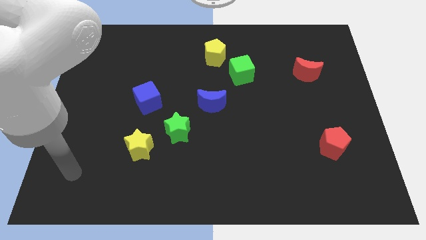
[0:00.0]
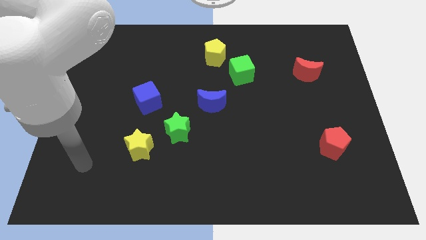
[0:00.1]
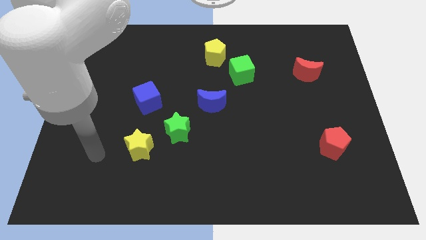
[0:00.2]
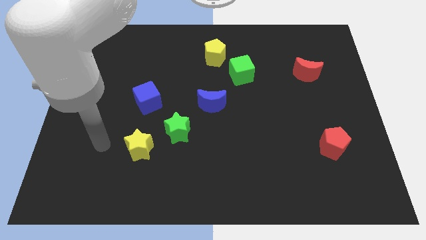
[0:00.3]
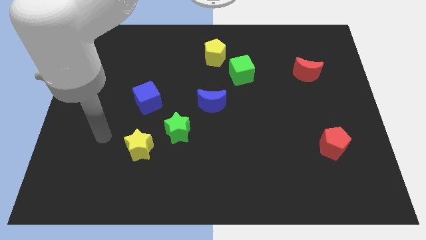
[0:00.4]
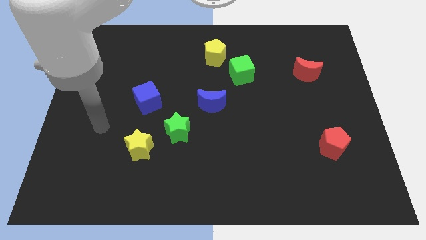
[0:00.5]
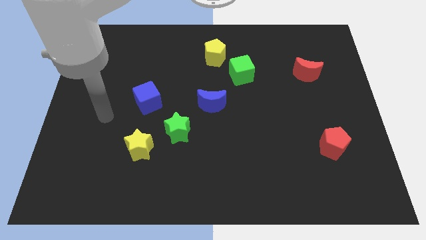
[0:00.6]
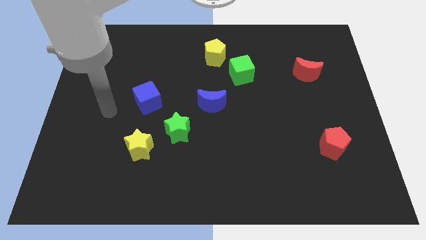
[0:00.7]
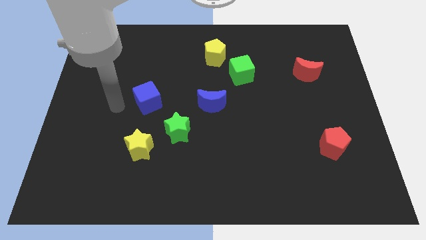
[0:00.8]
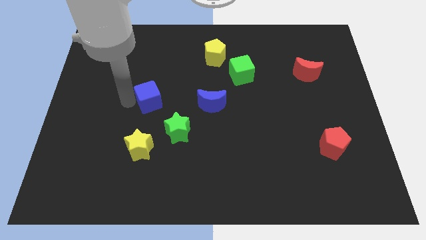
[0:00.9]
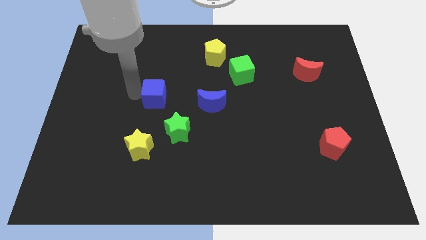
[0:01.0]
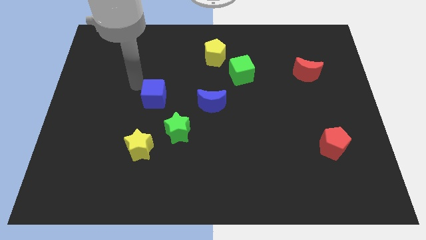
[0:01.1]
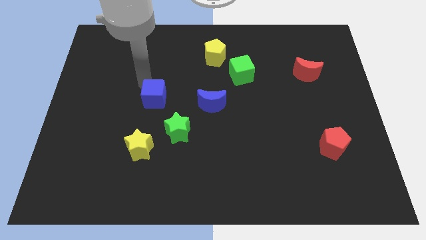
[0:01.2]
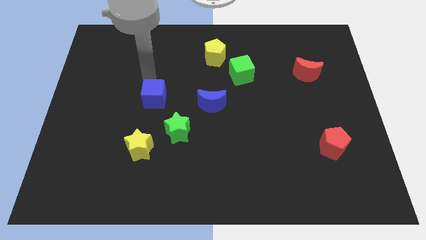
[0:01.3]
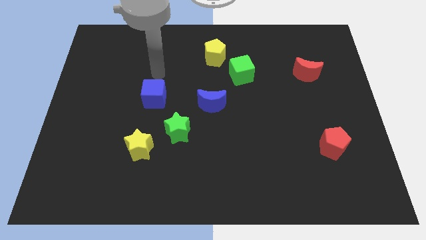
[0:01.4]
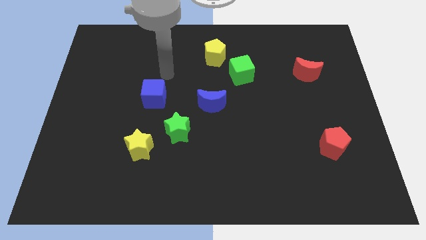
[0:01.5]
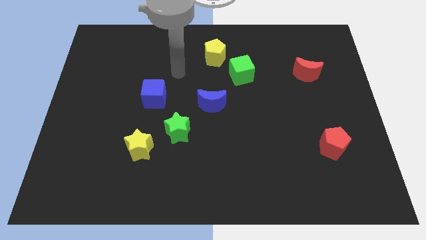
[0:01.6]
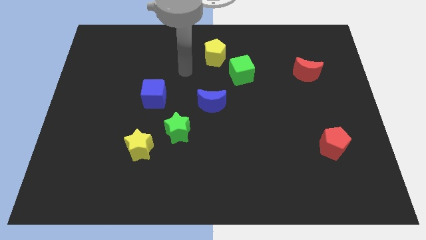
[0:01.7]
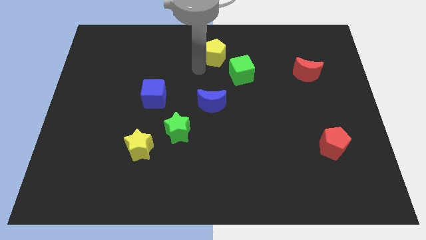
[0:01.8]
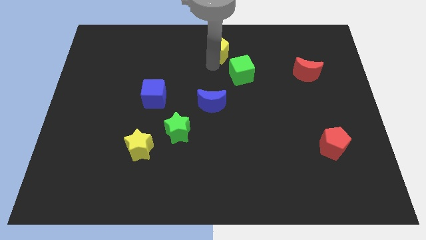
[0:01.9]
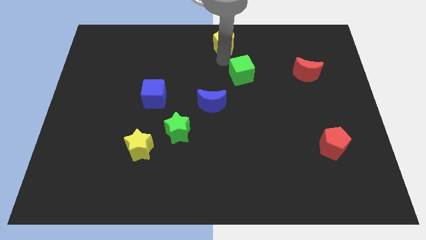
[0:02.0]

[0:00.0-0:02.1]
move the green cube away from the yellow pentagon

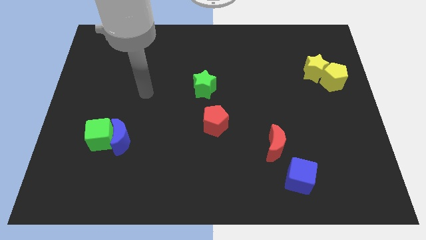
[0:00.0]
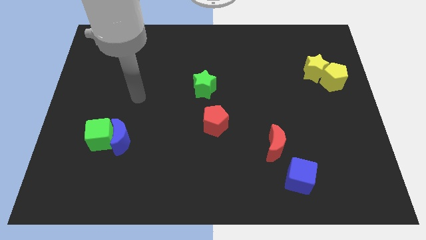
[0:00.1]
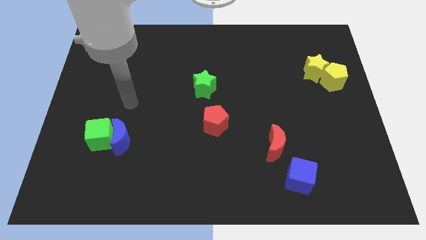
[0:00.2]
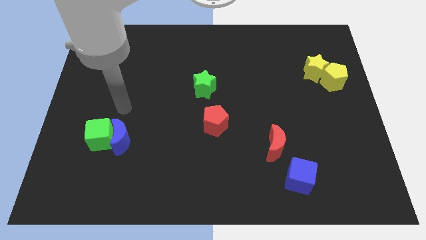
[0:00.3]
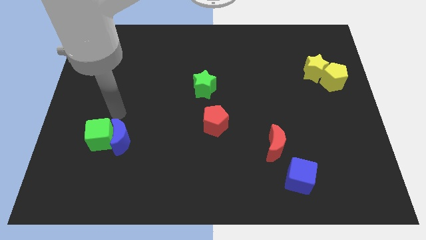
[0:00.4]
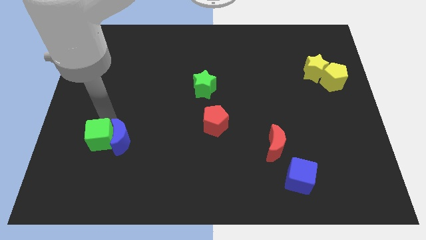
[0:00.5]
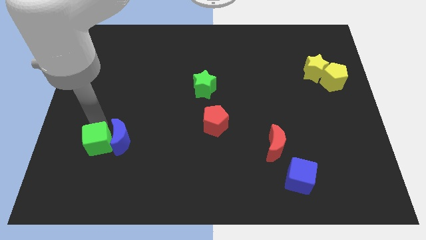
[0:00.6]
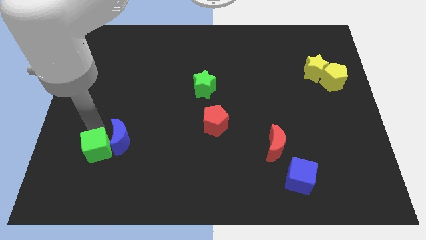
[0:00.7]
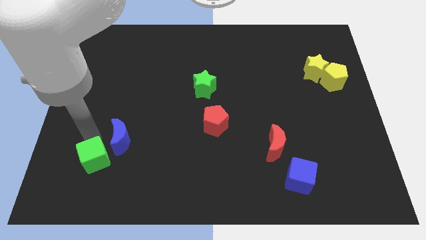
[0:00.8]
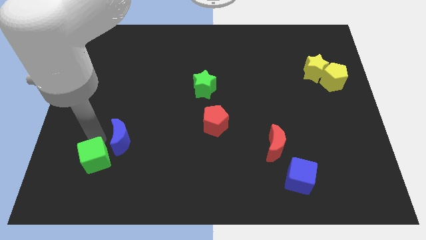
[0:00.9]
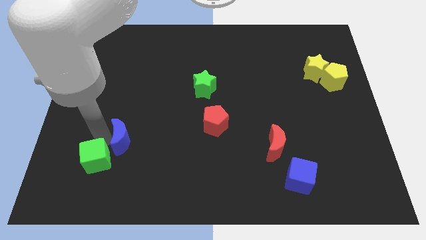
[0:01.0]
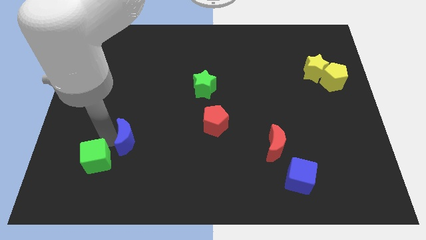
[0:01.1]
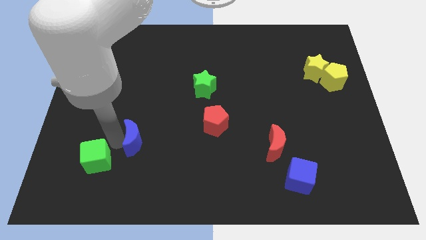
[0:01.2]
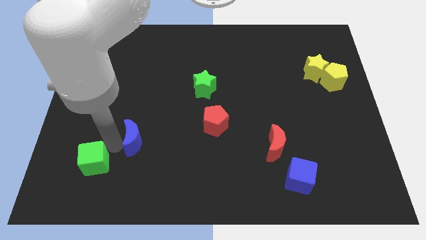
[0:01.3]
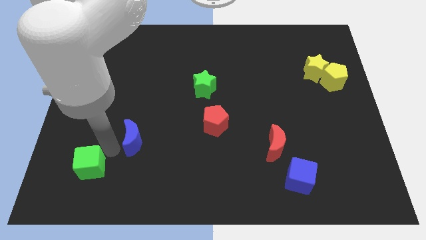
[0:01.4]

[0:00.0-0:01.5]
separate the blue moon from the green cube

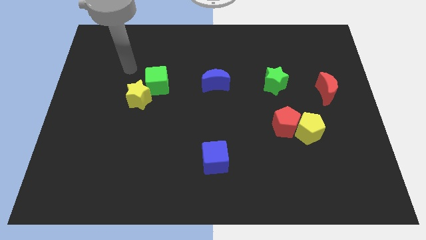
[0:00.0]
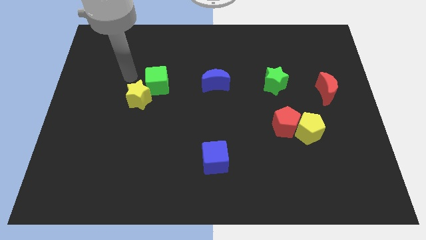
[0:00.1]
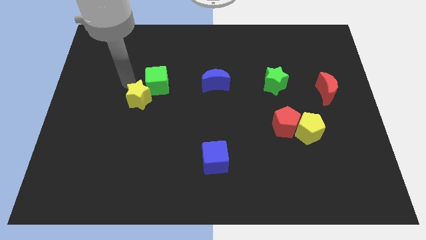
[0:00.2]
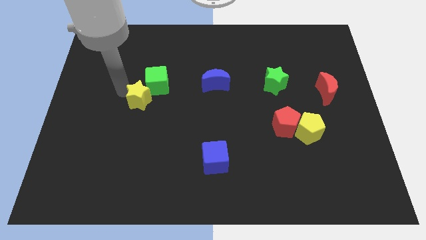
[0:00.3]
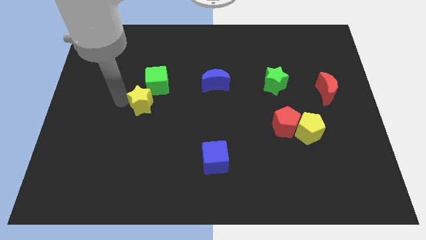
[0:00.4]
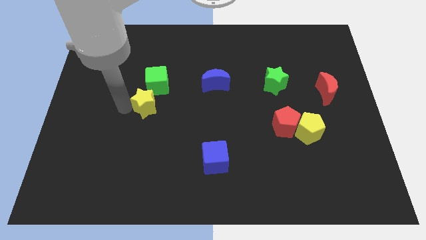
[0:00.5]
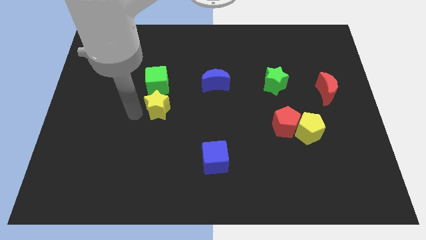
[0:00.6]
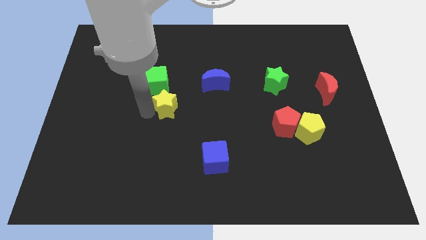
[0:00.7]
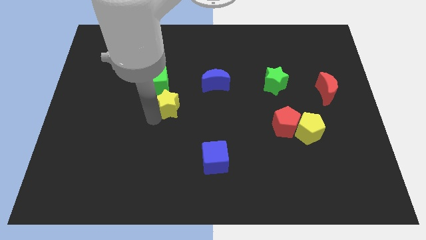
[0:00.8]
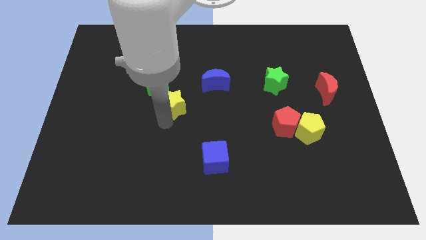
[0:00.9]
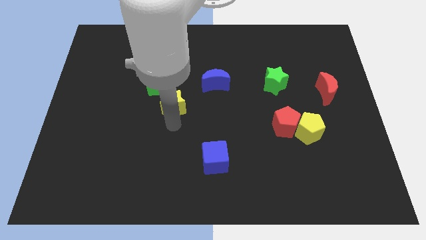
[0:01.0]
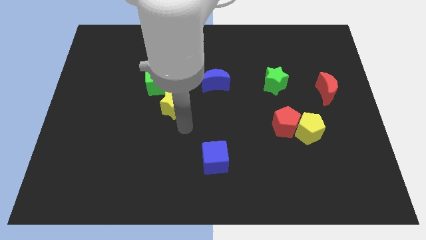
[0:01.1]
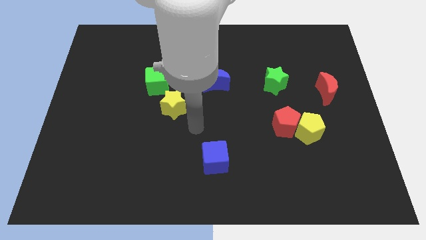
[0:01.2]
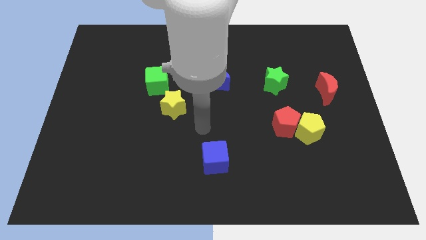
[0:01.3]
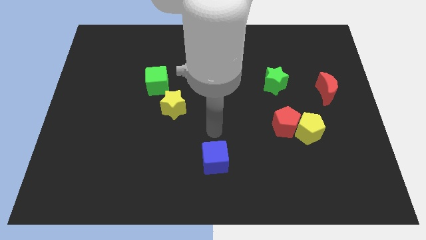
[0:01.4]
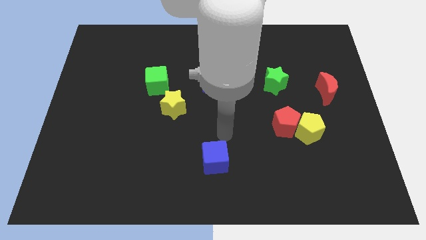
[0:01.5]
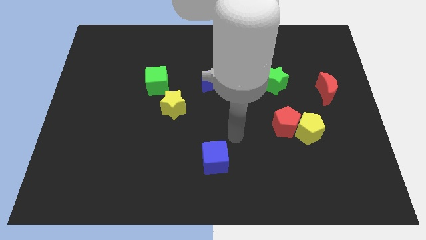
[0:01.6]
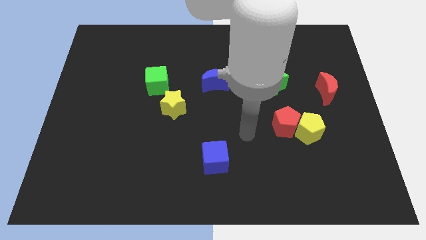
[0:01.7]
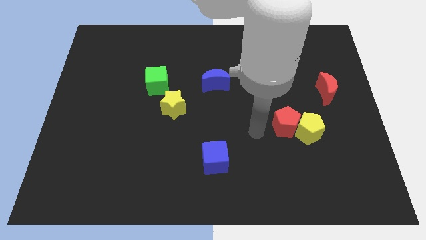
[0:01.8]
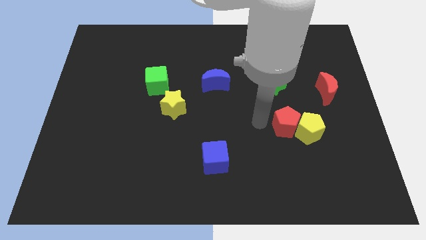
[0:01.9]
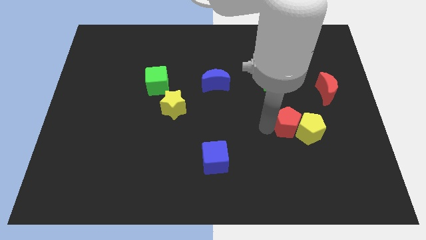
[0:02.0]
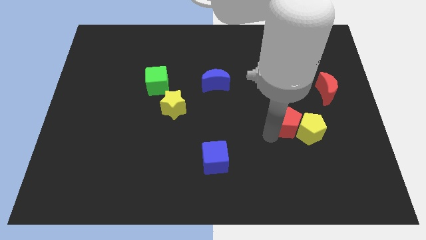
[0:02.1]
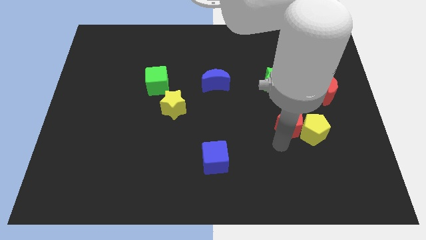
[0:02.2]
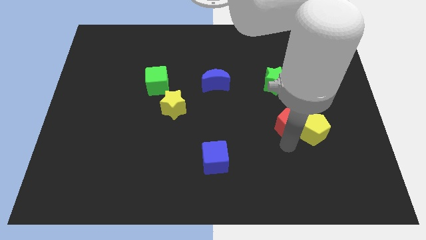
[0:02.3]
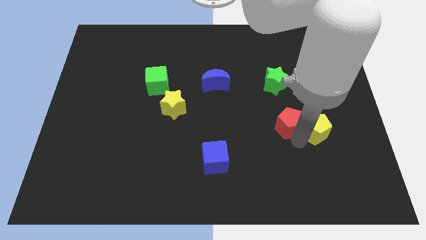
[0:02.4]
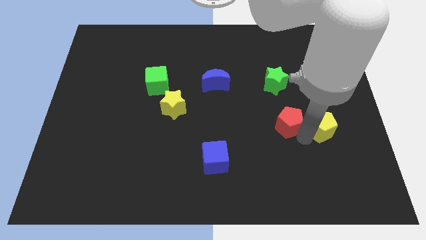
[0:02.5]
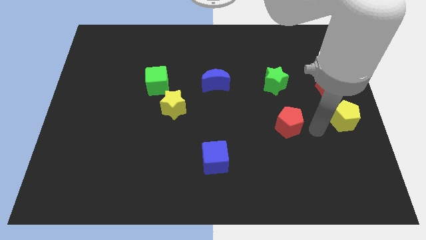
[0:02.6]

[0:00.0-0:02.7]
pull the red pentagon apart from the yellow pentagon

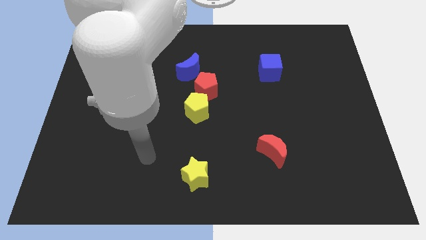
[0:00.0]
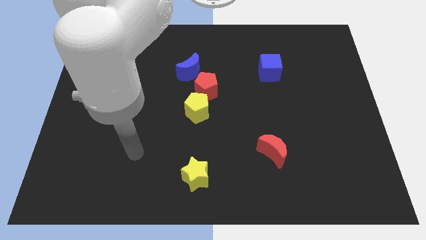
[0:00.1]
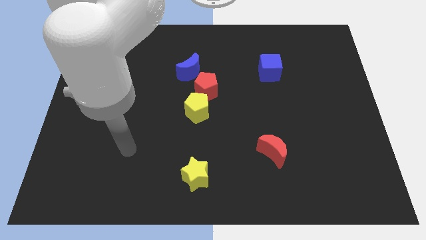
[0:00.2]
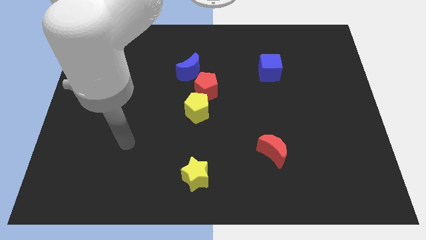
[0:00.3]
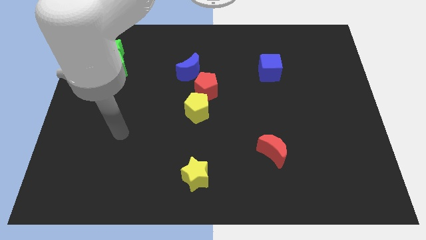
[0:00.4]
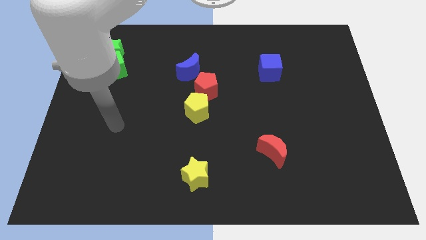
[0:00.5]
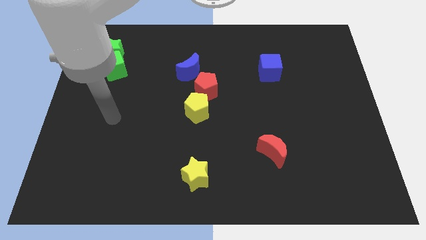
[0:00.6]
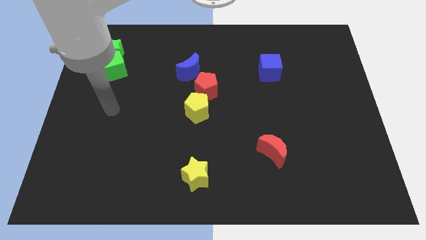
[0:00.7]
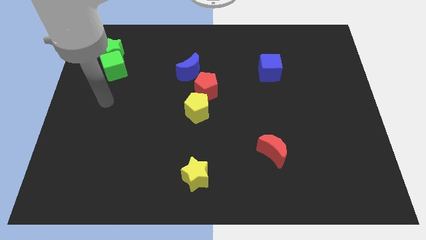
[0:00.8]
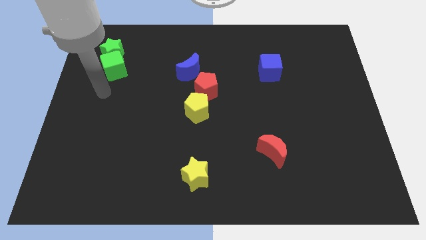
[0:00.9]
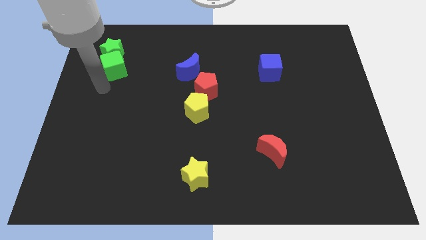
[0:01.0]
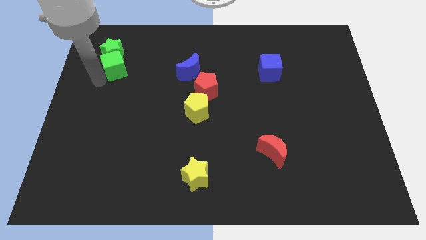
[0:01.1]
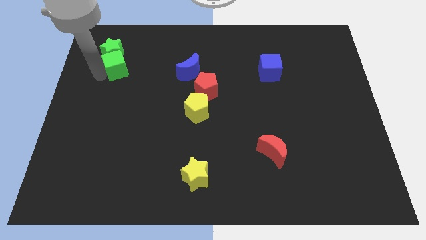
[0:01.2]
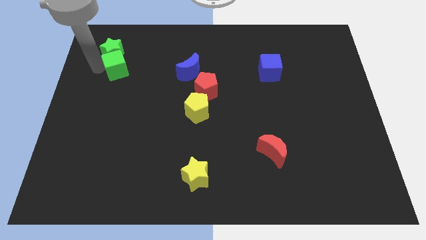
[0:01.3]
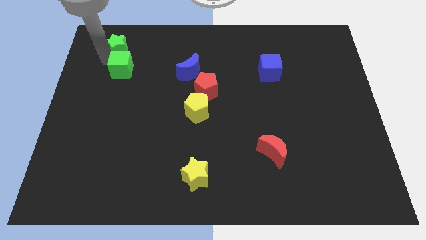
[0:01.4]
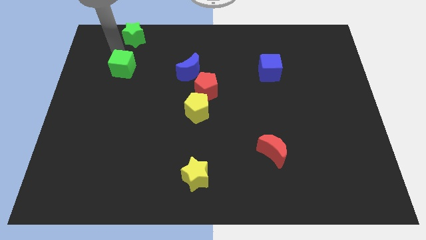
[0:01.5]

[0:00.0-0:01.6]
move the green cube away from the green star

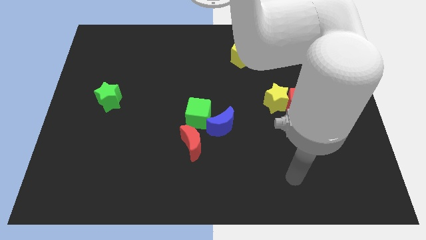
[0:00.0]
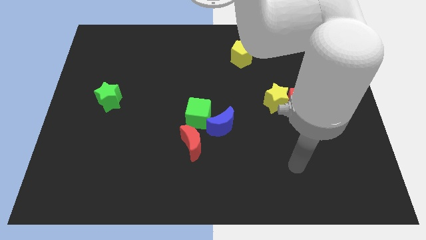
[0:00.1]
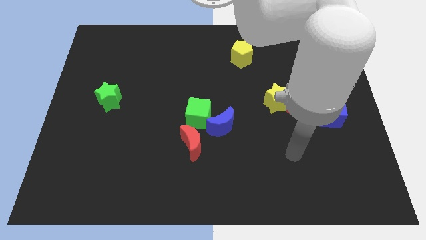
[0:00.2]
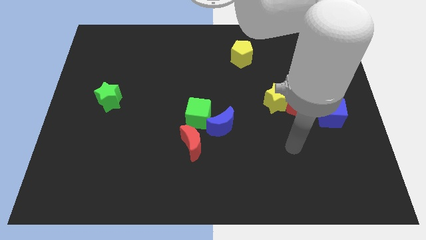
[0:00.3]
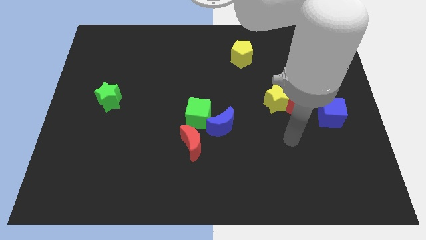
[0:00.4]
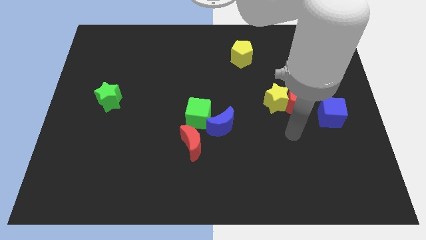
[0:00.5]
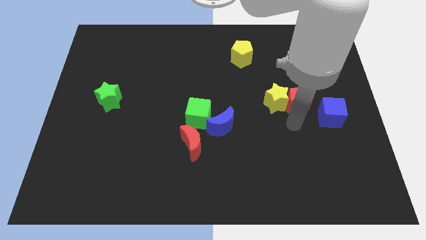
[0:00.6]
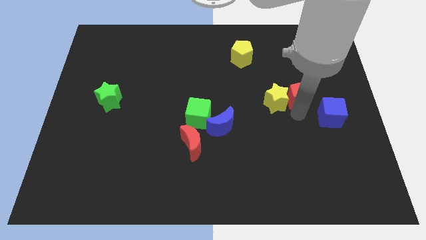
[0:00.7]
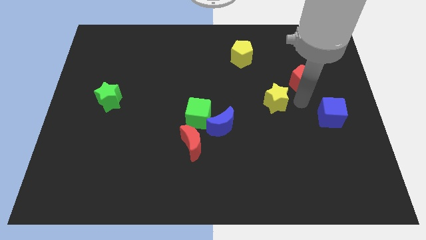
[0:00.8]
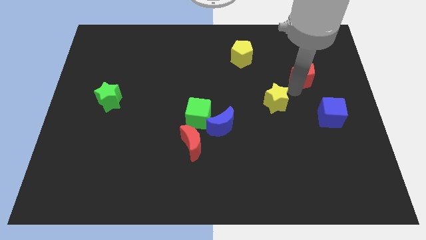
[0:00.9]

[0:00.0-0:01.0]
separate the yellow star from the red pentagon

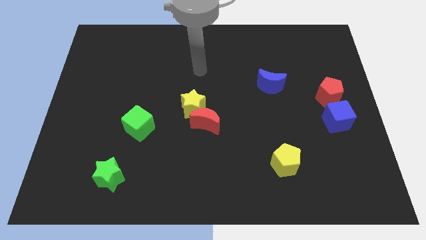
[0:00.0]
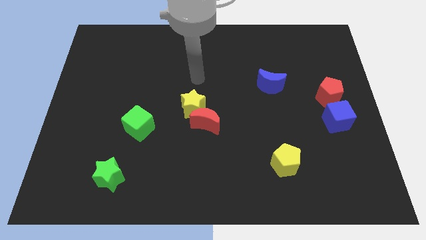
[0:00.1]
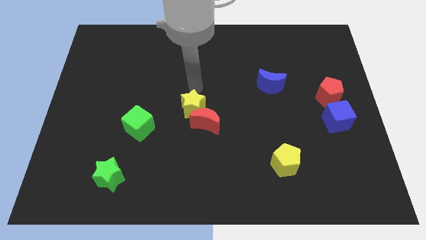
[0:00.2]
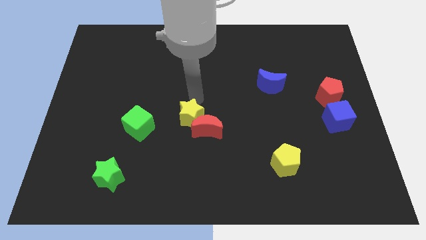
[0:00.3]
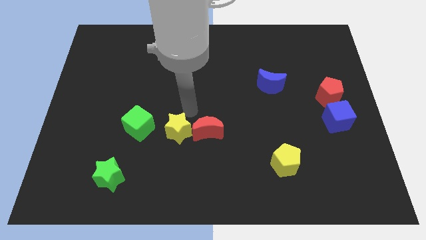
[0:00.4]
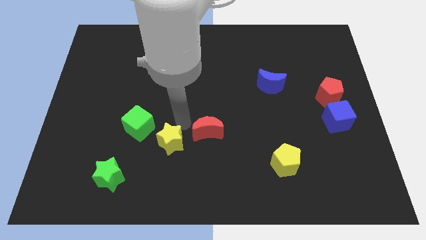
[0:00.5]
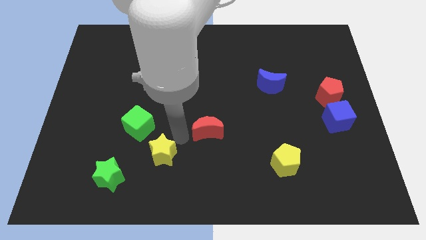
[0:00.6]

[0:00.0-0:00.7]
separate the red moon from the yellow star
